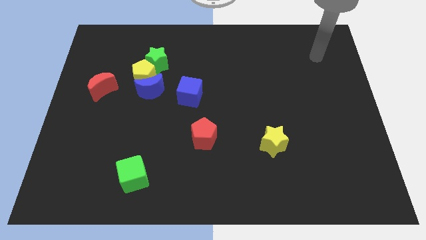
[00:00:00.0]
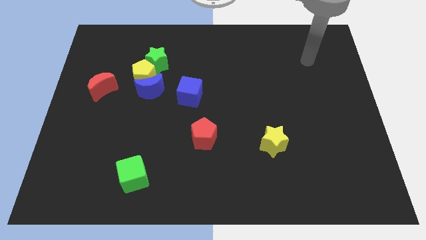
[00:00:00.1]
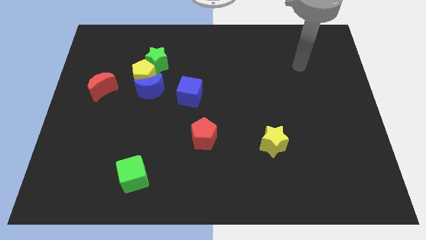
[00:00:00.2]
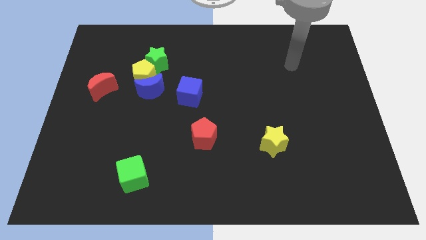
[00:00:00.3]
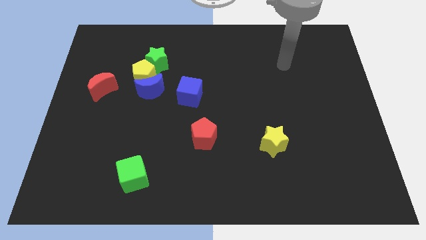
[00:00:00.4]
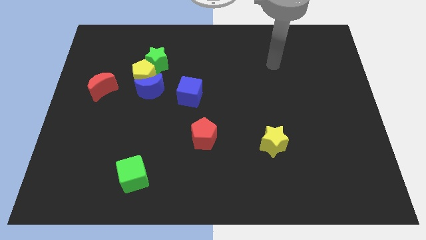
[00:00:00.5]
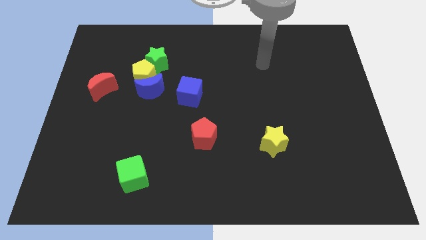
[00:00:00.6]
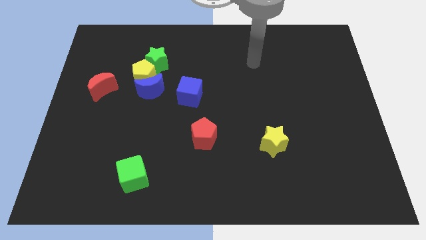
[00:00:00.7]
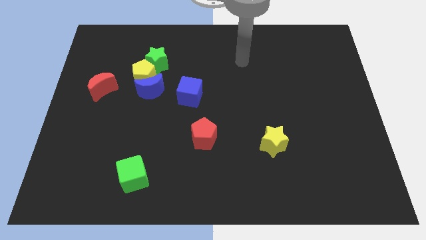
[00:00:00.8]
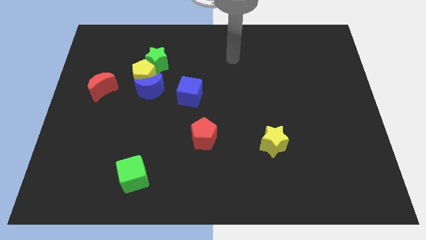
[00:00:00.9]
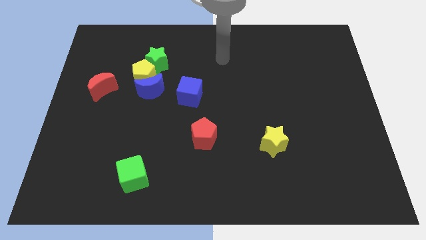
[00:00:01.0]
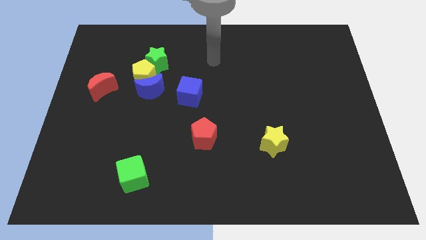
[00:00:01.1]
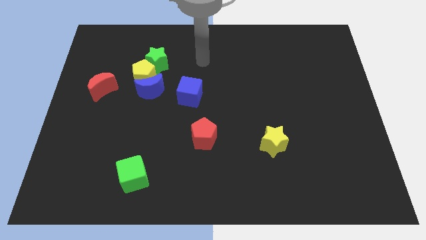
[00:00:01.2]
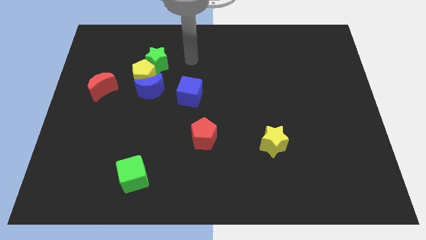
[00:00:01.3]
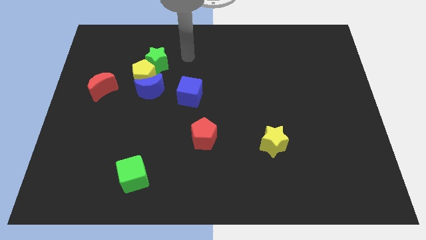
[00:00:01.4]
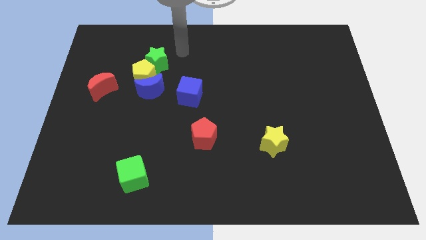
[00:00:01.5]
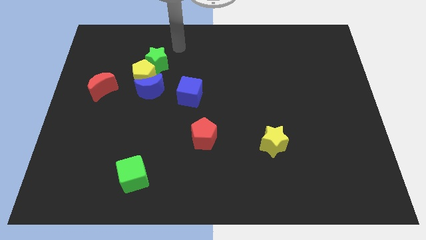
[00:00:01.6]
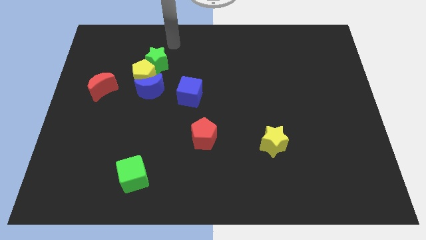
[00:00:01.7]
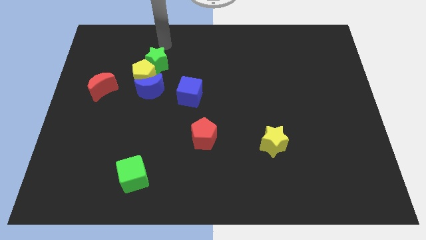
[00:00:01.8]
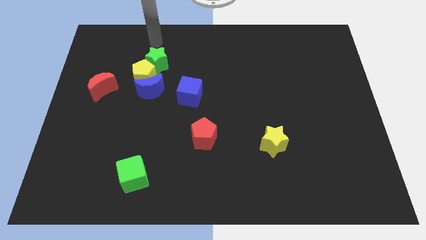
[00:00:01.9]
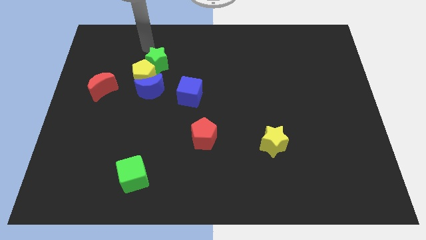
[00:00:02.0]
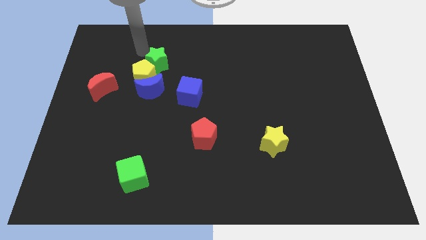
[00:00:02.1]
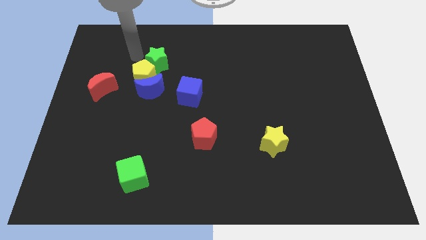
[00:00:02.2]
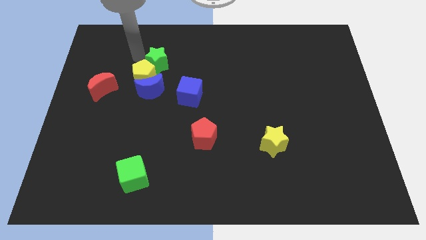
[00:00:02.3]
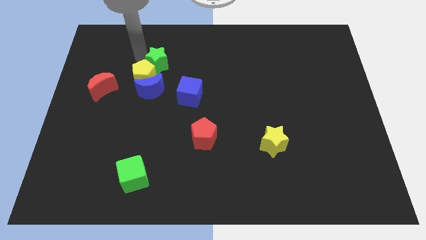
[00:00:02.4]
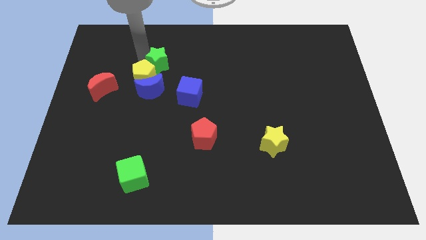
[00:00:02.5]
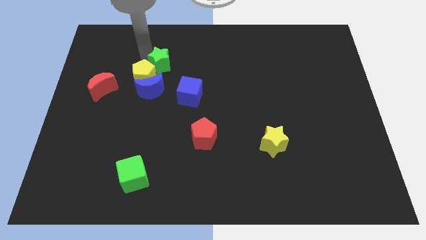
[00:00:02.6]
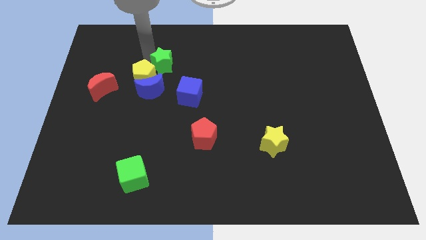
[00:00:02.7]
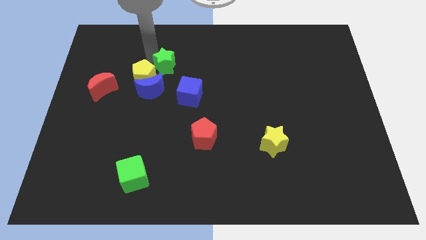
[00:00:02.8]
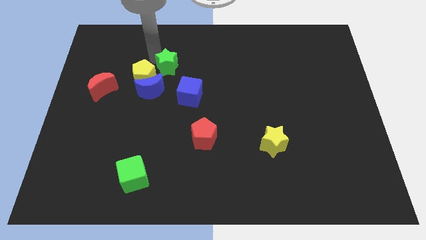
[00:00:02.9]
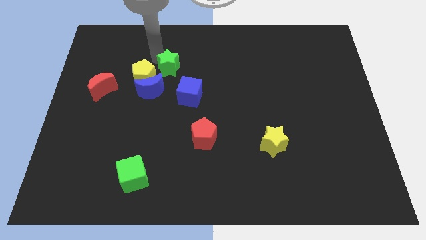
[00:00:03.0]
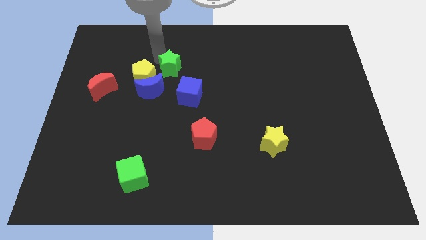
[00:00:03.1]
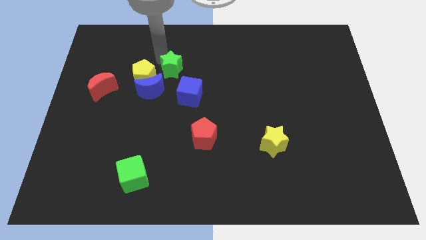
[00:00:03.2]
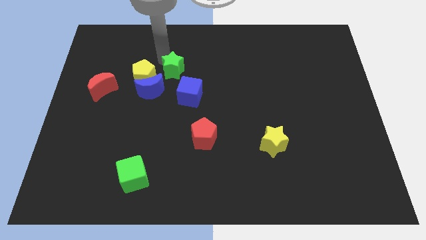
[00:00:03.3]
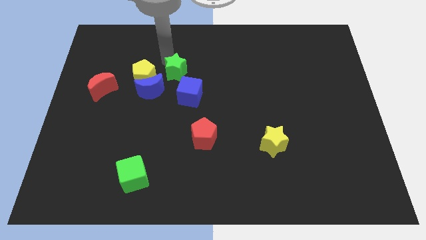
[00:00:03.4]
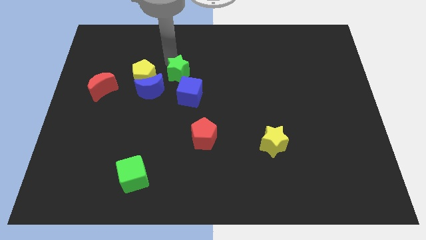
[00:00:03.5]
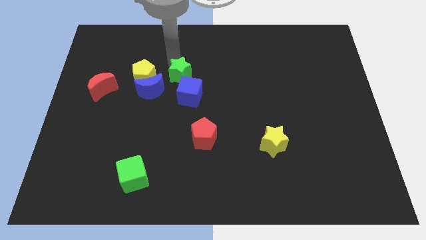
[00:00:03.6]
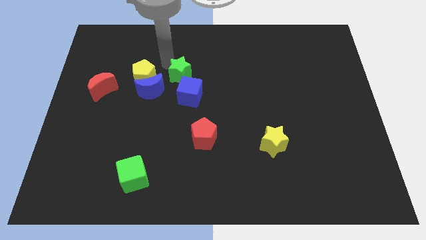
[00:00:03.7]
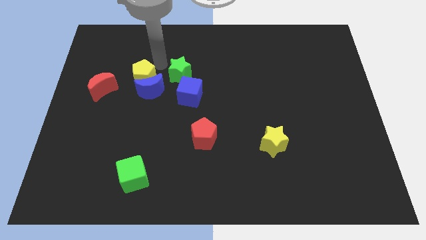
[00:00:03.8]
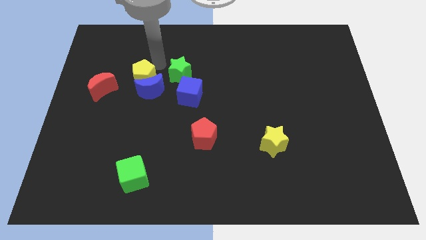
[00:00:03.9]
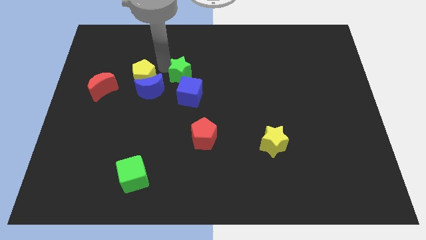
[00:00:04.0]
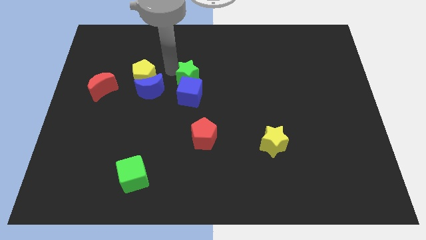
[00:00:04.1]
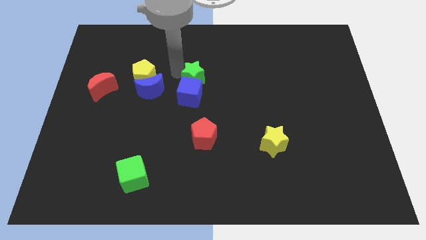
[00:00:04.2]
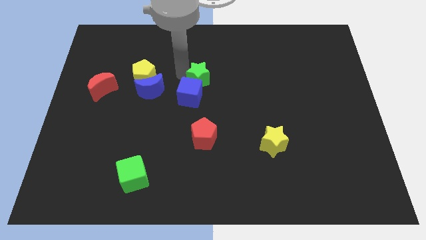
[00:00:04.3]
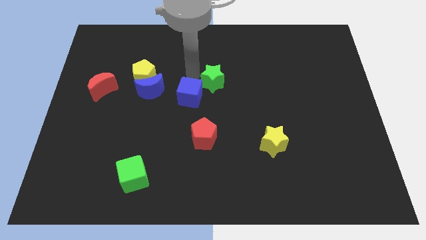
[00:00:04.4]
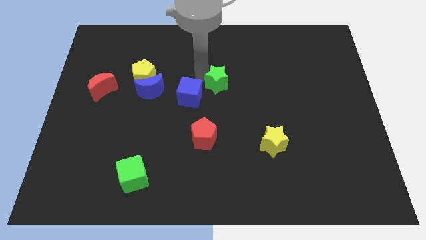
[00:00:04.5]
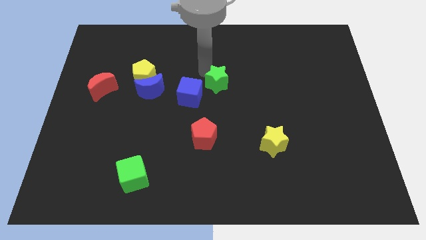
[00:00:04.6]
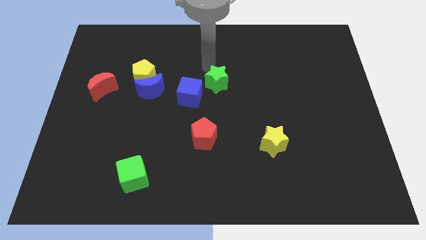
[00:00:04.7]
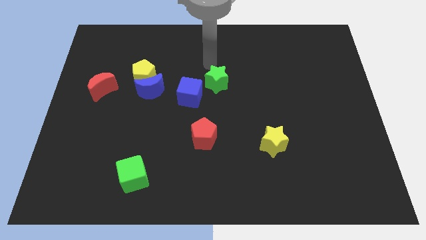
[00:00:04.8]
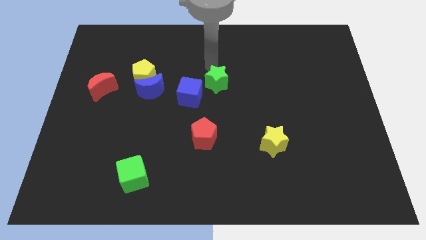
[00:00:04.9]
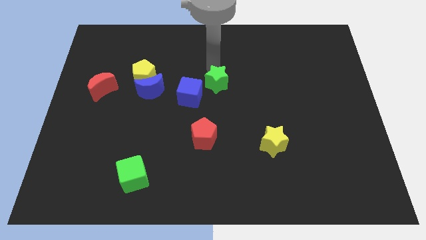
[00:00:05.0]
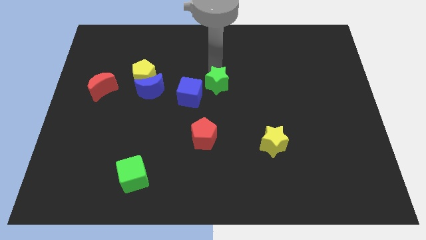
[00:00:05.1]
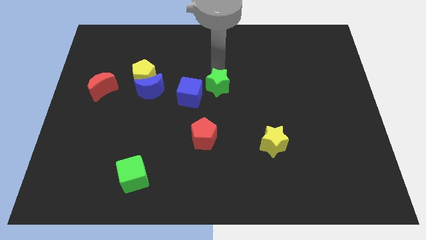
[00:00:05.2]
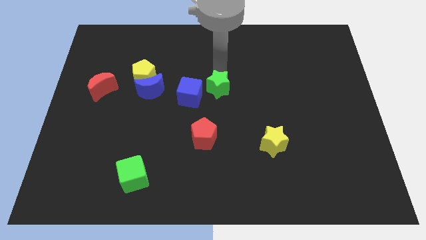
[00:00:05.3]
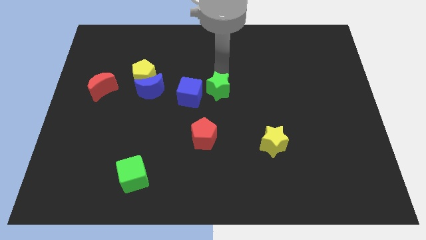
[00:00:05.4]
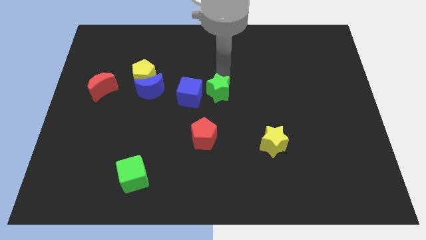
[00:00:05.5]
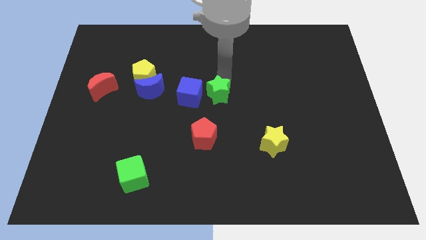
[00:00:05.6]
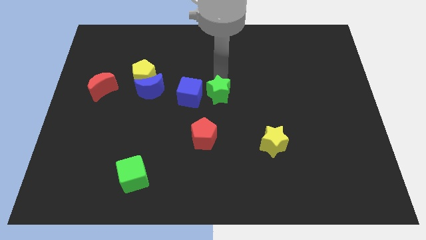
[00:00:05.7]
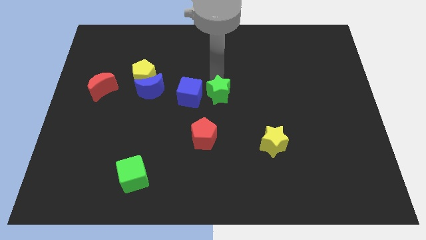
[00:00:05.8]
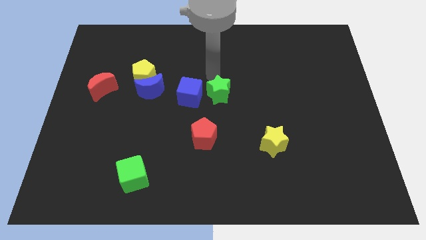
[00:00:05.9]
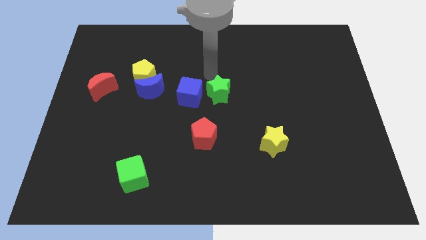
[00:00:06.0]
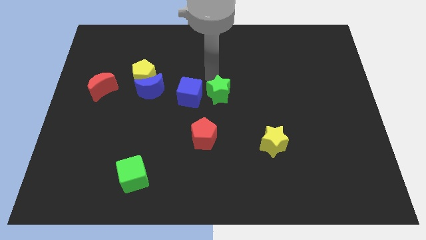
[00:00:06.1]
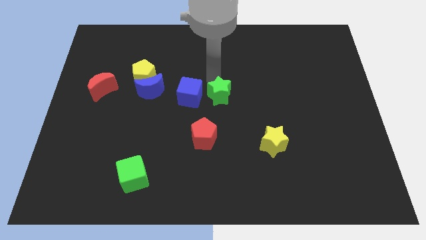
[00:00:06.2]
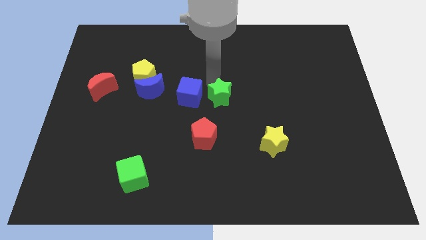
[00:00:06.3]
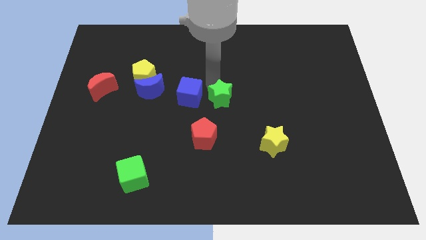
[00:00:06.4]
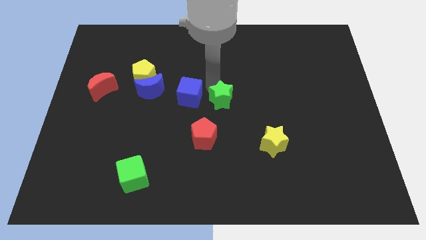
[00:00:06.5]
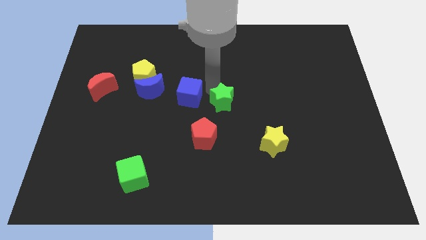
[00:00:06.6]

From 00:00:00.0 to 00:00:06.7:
slide the green star down and right diagonally

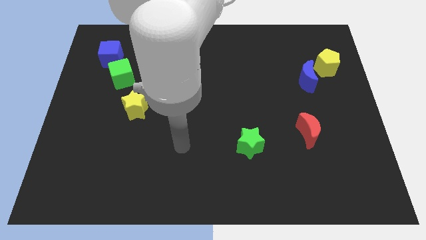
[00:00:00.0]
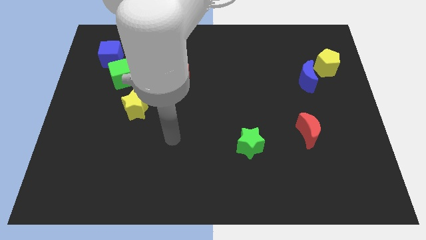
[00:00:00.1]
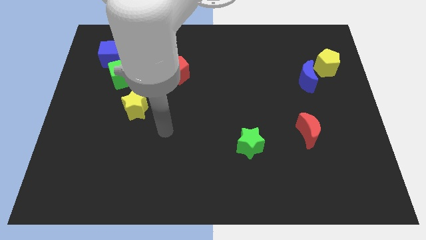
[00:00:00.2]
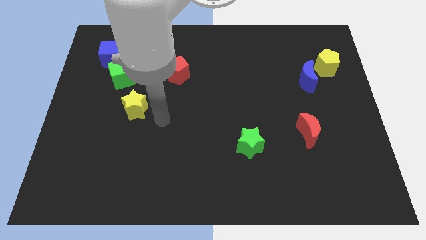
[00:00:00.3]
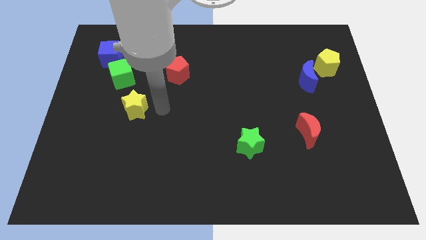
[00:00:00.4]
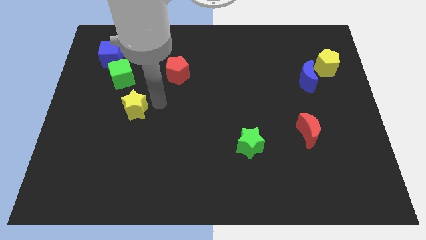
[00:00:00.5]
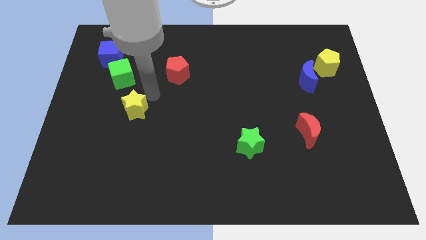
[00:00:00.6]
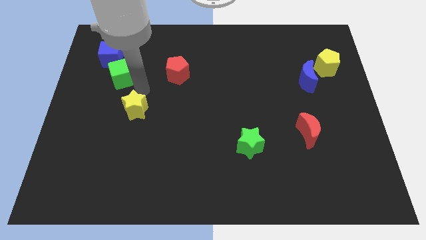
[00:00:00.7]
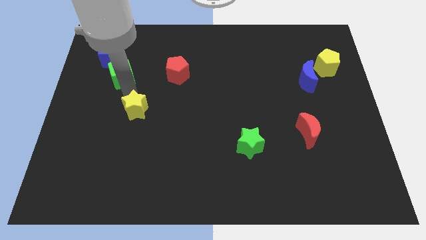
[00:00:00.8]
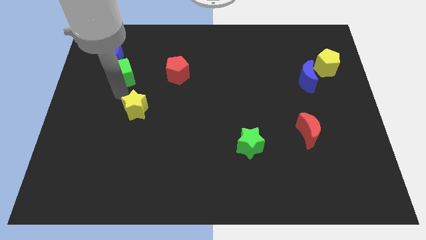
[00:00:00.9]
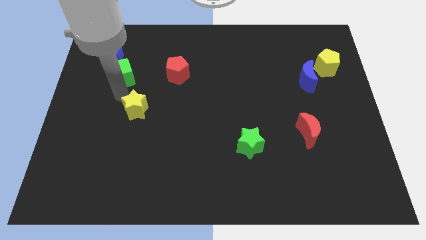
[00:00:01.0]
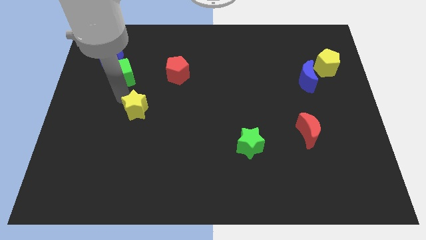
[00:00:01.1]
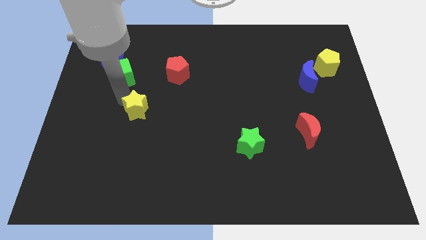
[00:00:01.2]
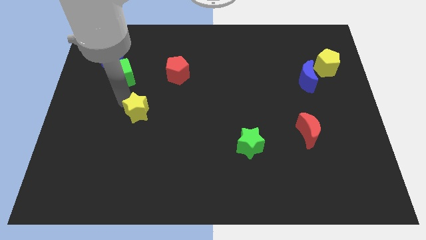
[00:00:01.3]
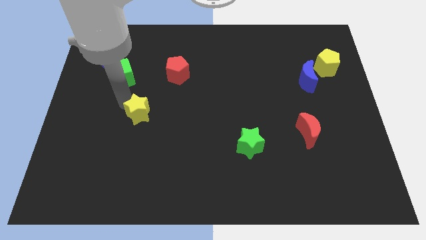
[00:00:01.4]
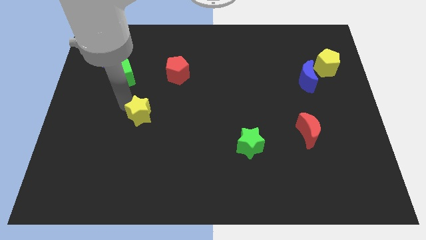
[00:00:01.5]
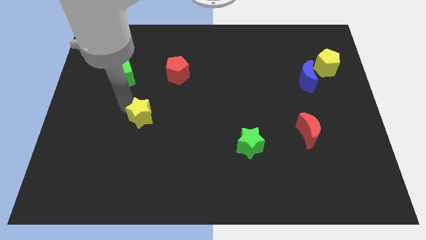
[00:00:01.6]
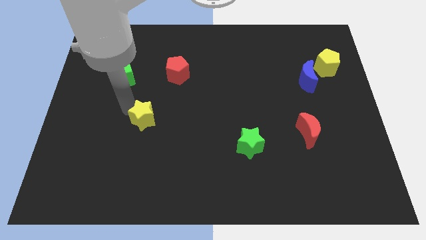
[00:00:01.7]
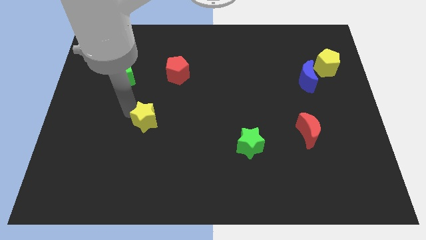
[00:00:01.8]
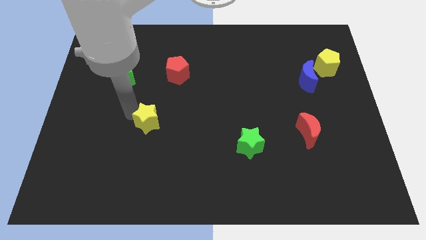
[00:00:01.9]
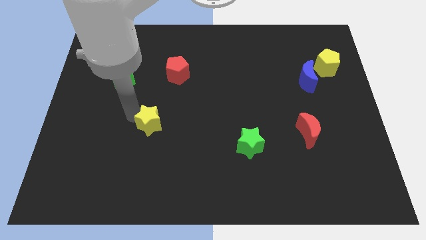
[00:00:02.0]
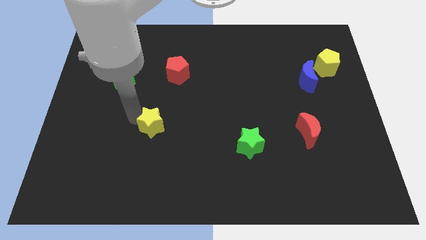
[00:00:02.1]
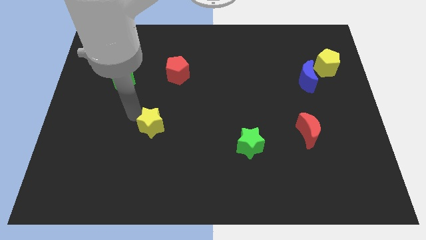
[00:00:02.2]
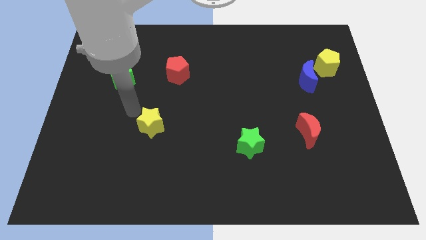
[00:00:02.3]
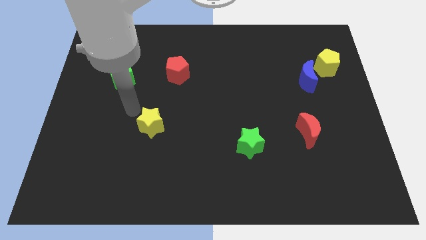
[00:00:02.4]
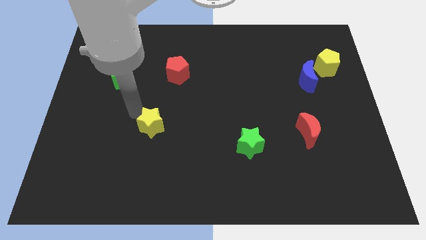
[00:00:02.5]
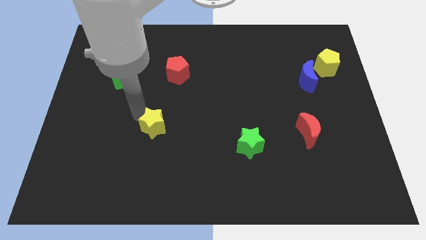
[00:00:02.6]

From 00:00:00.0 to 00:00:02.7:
slide the yellow star a little diagonally down and to the right
